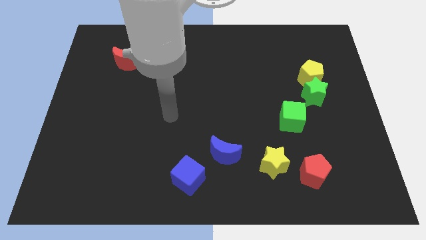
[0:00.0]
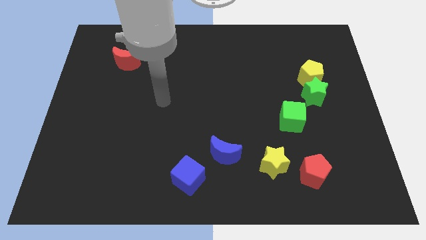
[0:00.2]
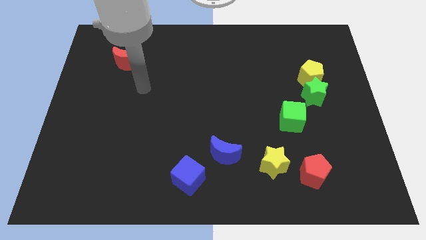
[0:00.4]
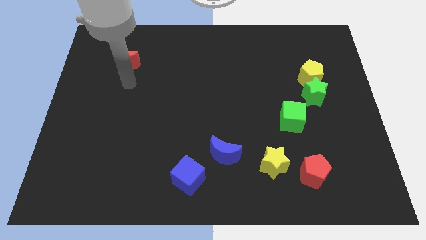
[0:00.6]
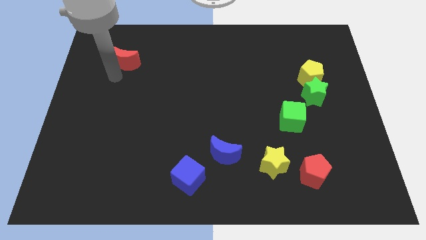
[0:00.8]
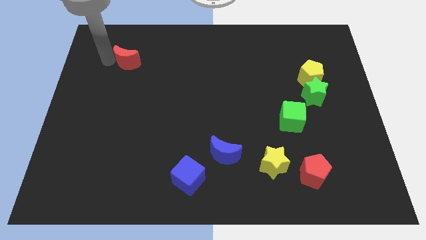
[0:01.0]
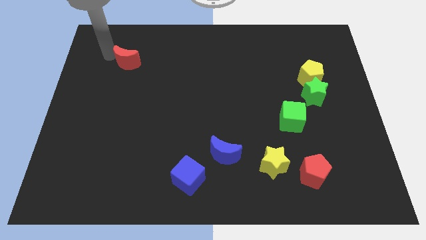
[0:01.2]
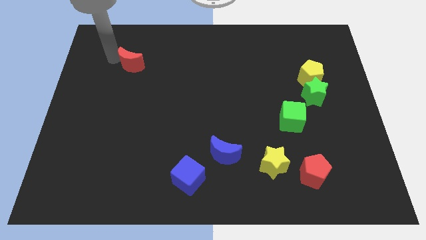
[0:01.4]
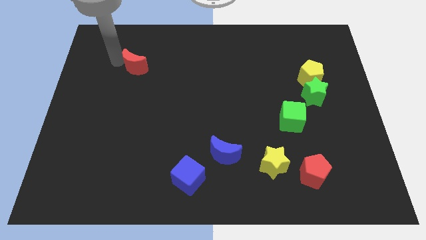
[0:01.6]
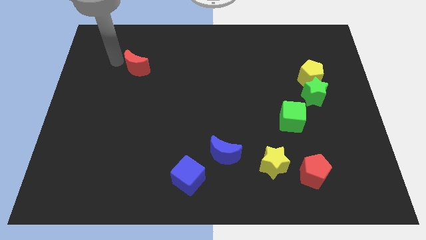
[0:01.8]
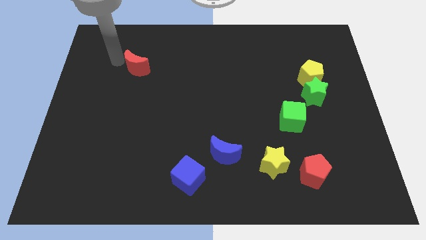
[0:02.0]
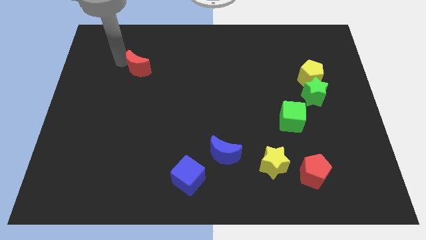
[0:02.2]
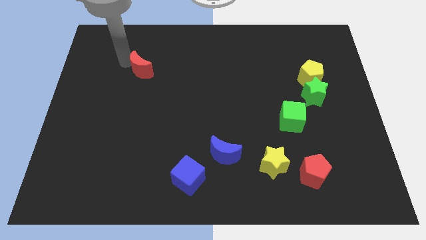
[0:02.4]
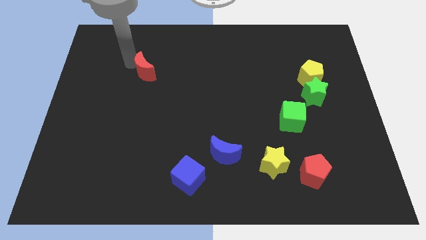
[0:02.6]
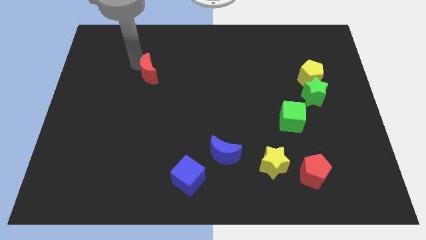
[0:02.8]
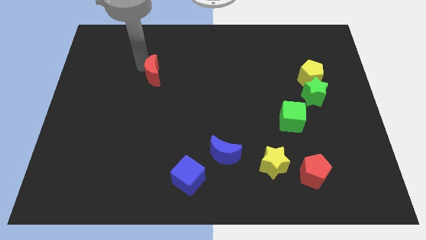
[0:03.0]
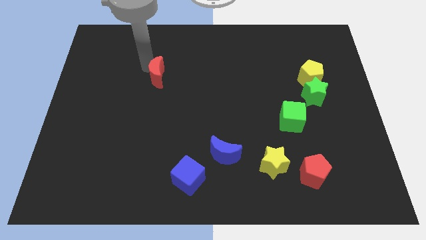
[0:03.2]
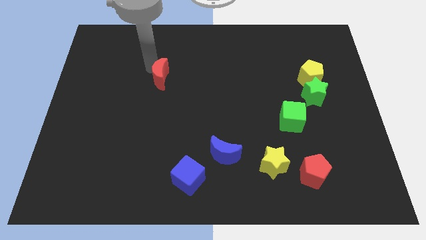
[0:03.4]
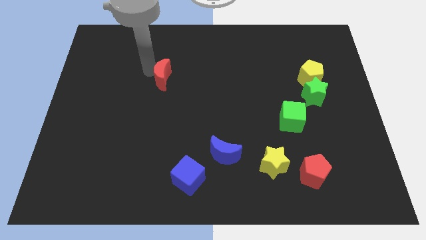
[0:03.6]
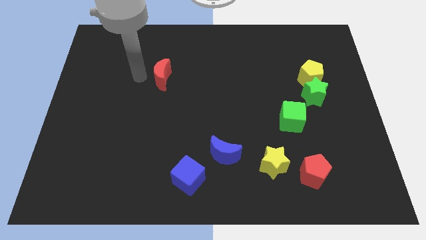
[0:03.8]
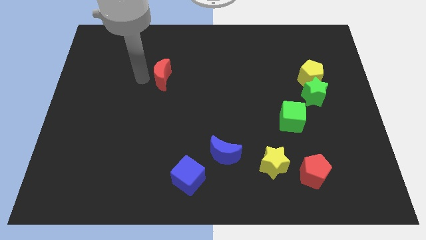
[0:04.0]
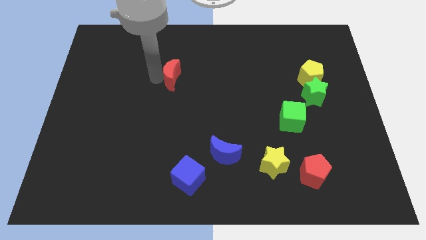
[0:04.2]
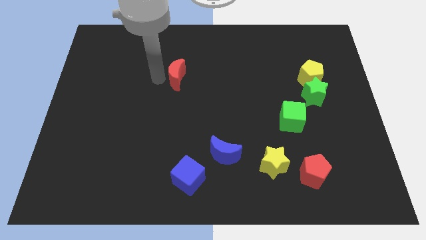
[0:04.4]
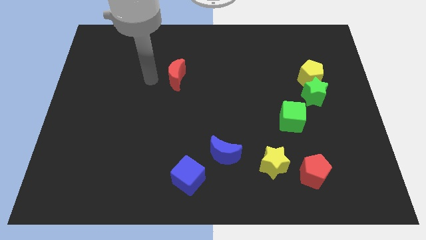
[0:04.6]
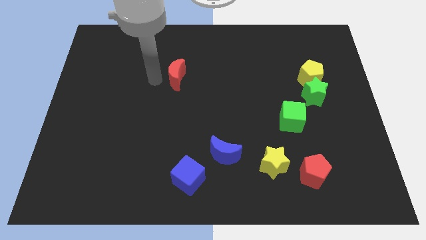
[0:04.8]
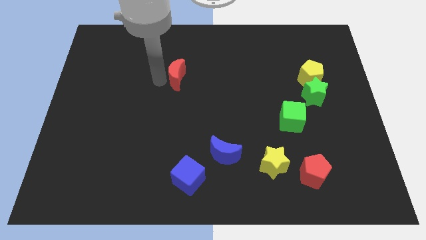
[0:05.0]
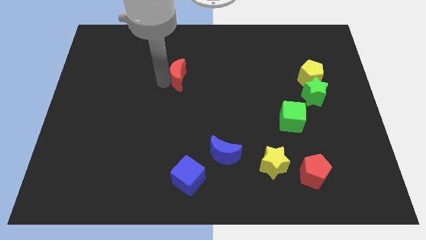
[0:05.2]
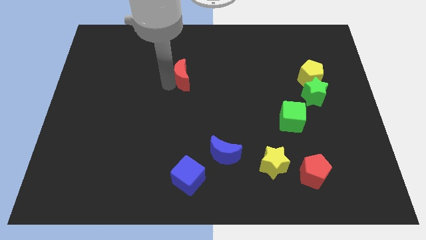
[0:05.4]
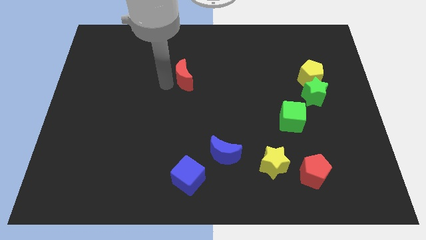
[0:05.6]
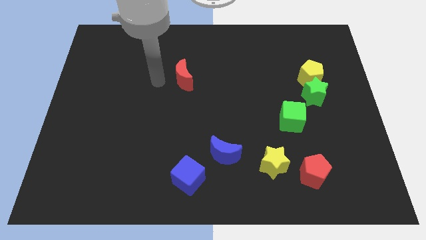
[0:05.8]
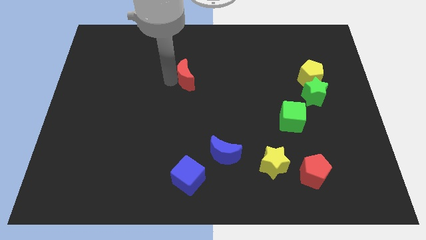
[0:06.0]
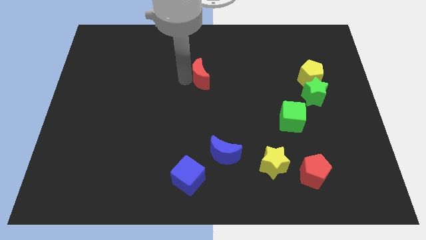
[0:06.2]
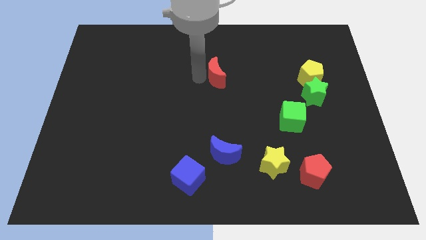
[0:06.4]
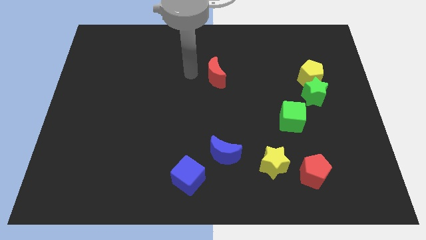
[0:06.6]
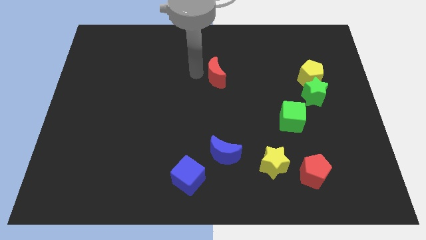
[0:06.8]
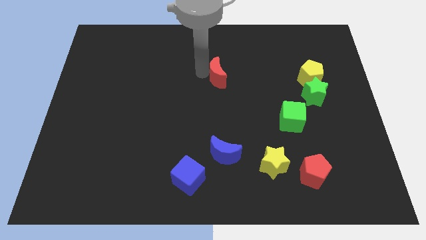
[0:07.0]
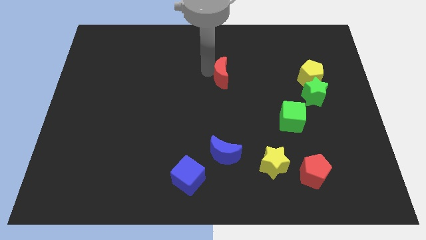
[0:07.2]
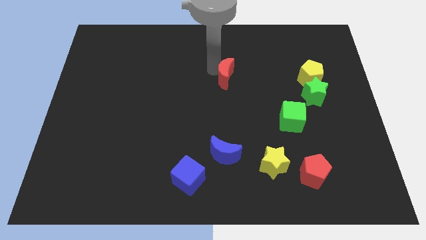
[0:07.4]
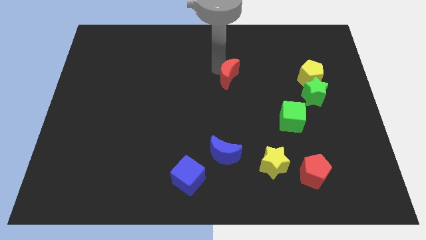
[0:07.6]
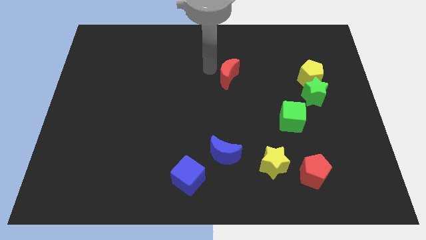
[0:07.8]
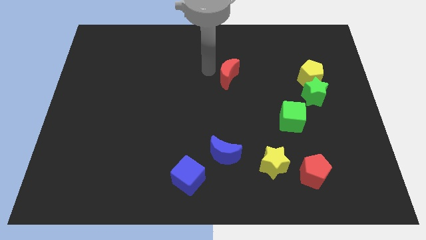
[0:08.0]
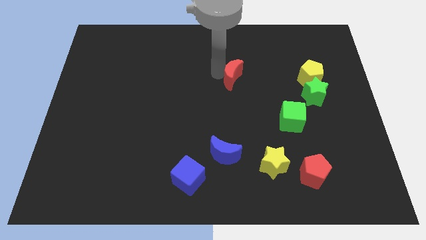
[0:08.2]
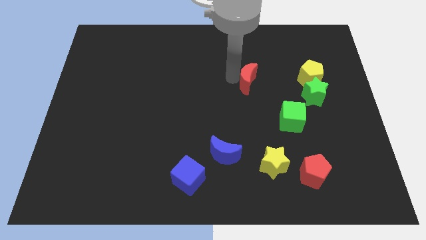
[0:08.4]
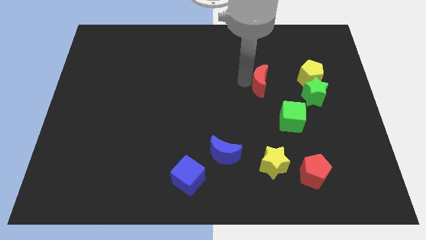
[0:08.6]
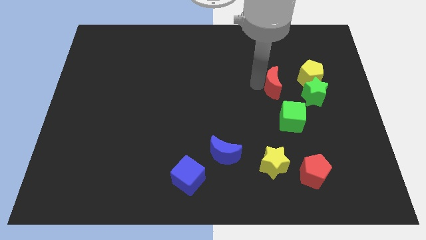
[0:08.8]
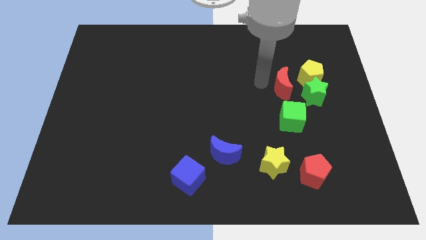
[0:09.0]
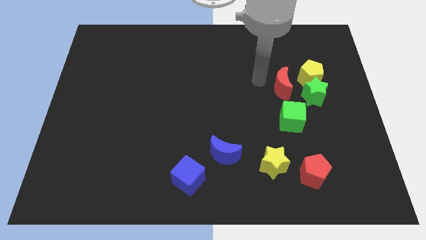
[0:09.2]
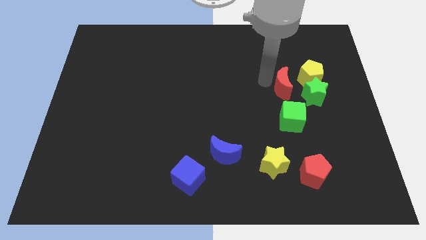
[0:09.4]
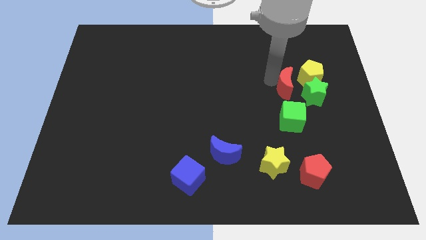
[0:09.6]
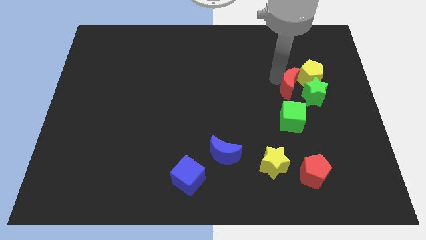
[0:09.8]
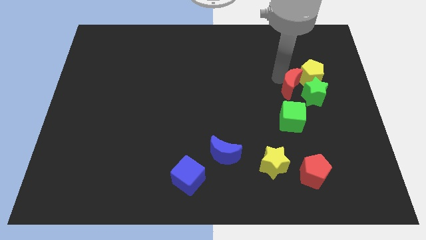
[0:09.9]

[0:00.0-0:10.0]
push the red moon to the green star

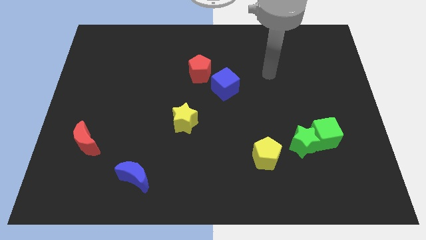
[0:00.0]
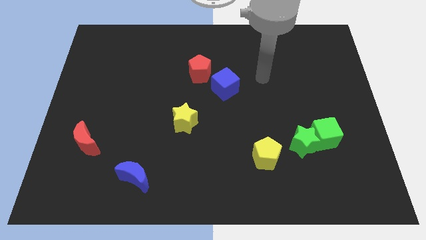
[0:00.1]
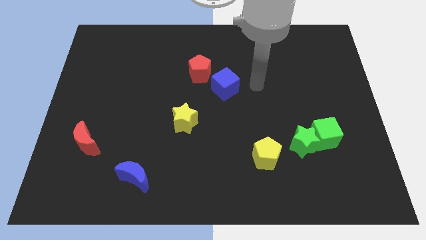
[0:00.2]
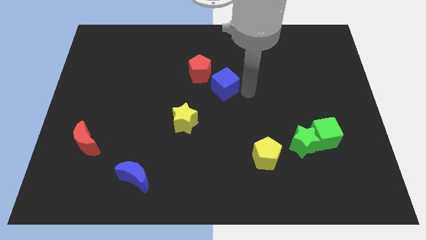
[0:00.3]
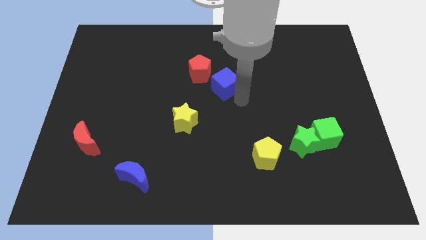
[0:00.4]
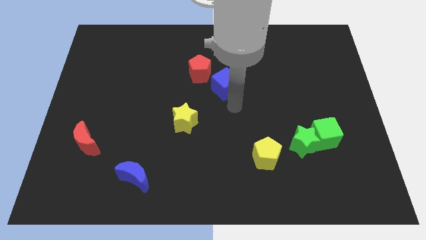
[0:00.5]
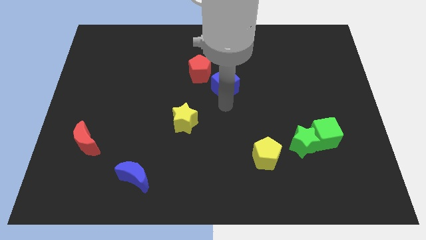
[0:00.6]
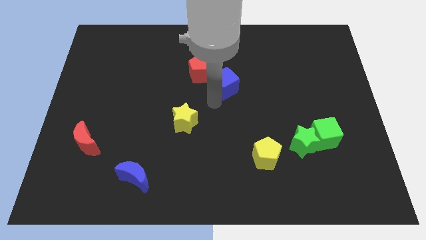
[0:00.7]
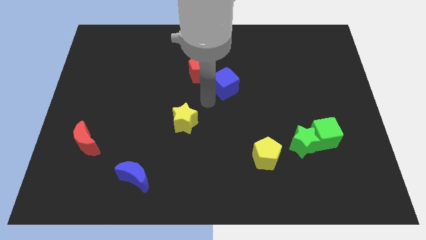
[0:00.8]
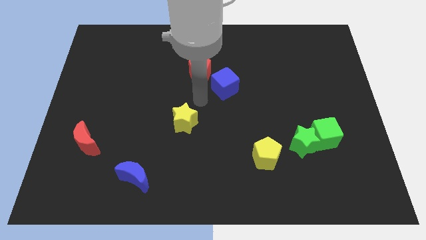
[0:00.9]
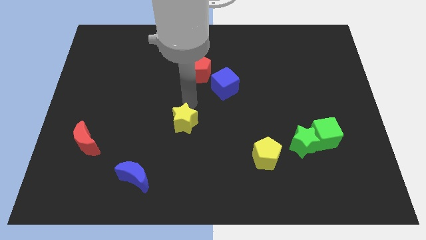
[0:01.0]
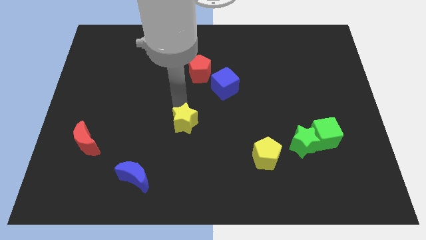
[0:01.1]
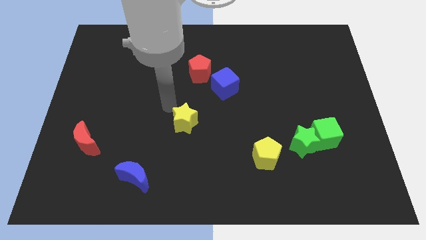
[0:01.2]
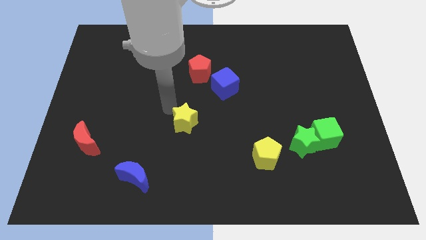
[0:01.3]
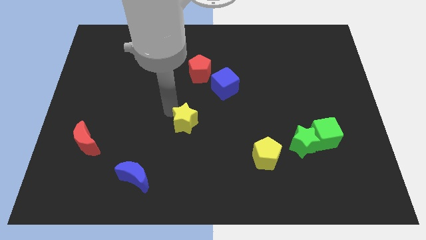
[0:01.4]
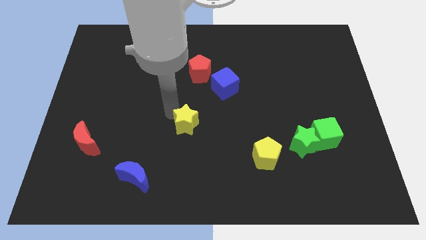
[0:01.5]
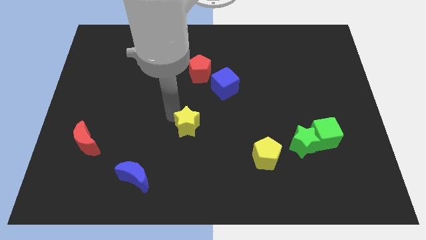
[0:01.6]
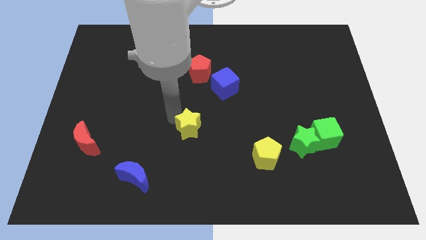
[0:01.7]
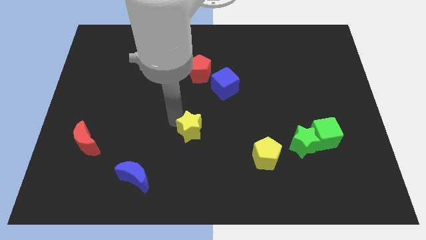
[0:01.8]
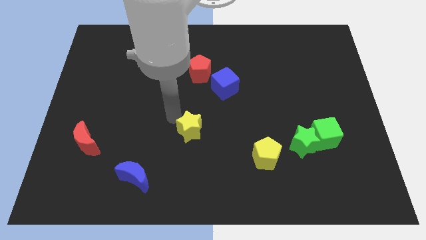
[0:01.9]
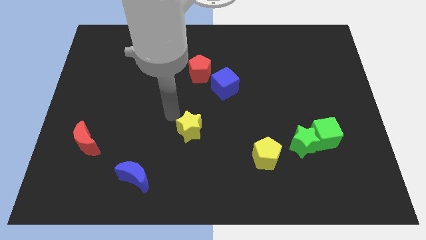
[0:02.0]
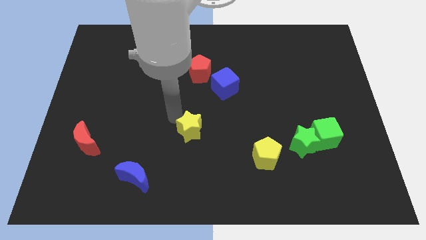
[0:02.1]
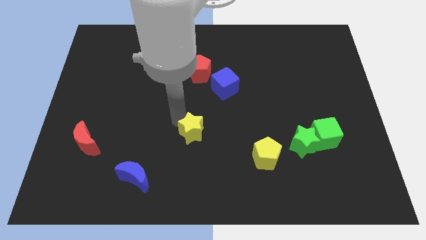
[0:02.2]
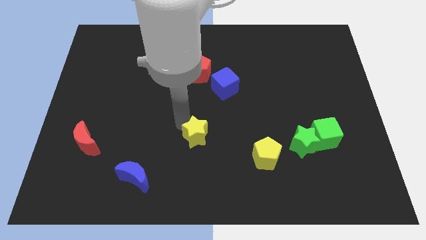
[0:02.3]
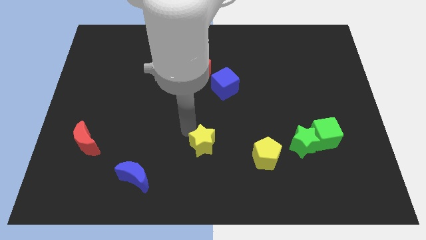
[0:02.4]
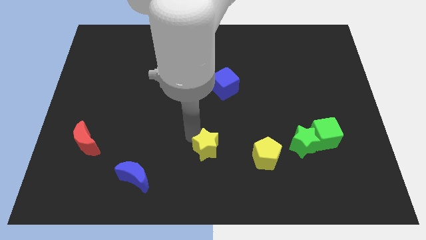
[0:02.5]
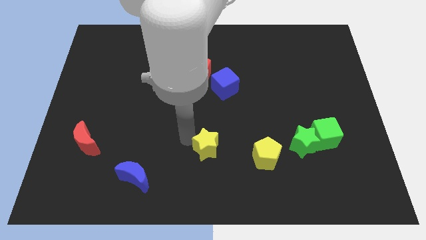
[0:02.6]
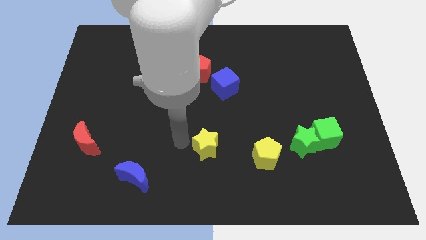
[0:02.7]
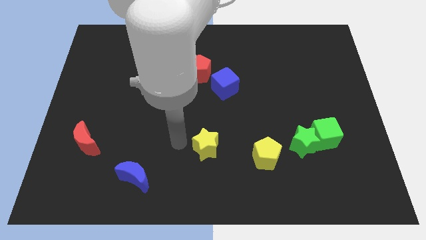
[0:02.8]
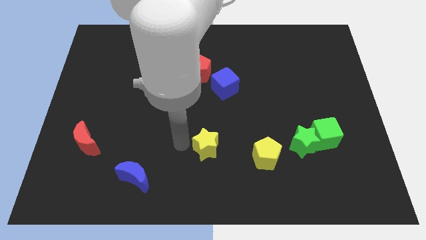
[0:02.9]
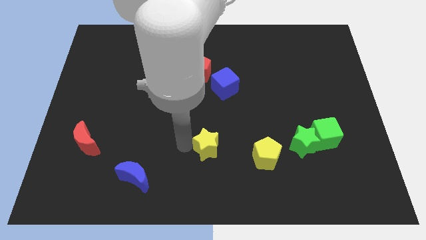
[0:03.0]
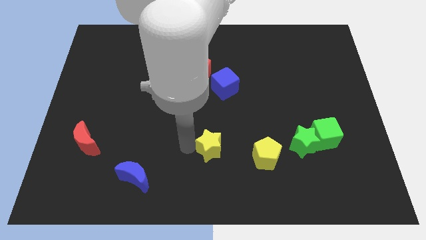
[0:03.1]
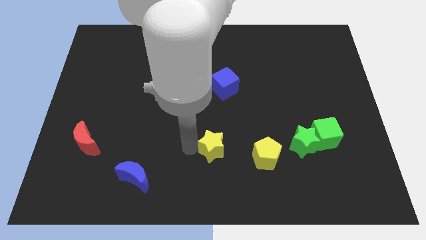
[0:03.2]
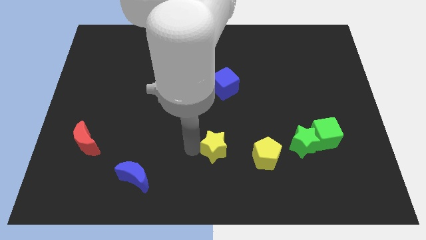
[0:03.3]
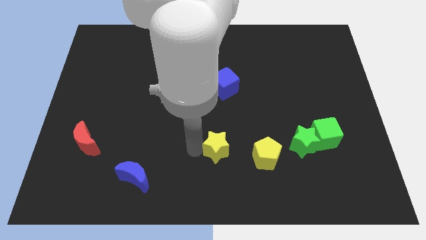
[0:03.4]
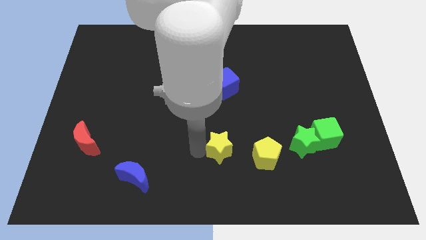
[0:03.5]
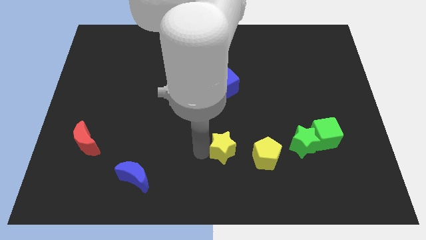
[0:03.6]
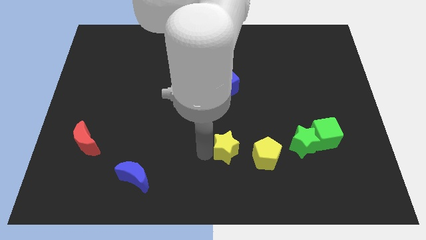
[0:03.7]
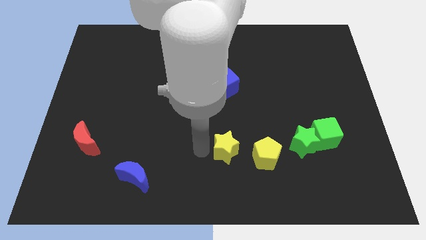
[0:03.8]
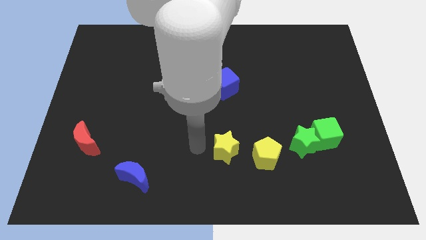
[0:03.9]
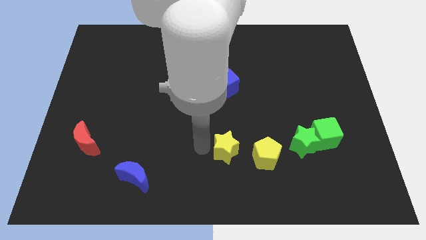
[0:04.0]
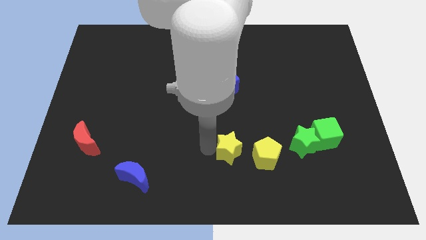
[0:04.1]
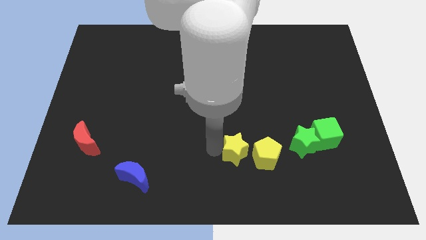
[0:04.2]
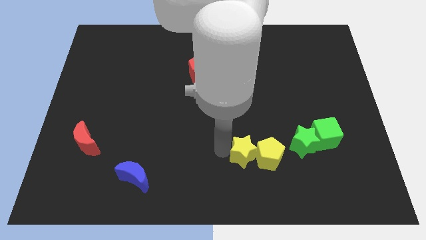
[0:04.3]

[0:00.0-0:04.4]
put the yellow star close to the yellow pentagon
